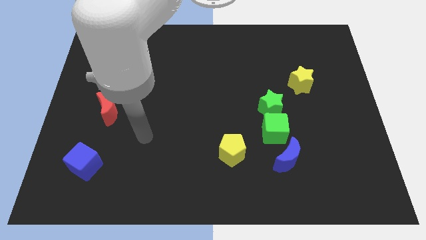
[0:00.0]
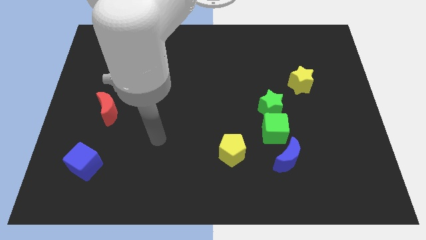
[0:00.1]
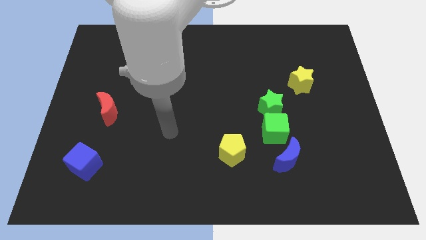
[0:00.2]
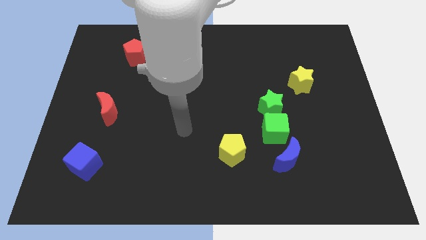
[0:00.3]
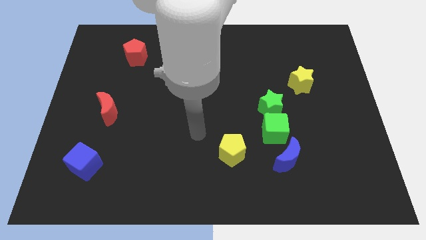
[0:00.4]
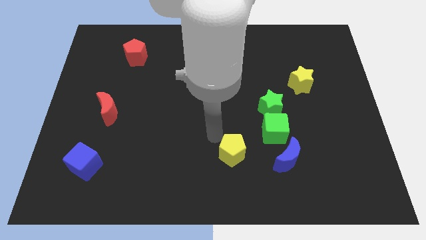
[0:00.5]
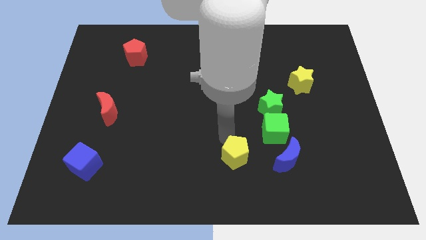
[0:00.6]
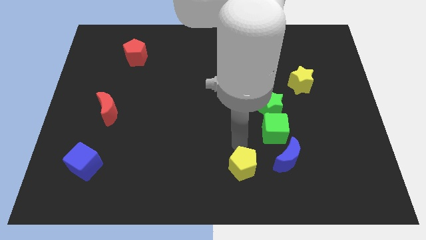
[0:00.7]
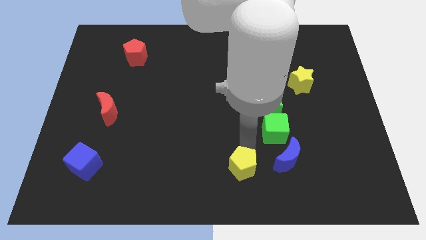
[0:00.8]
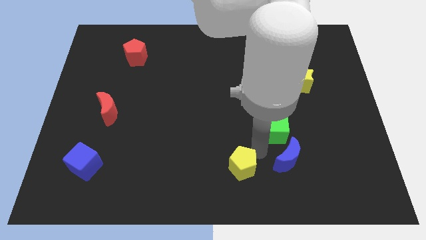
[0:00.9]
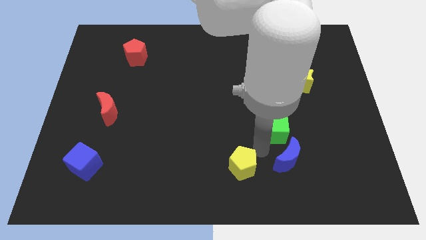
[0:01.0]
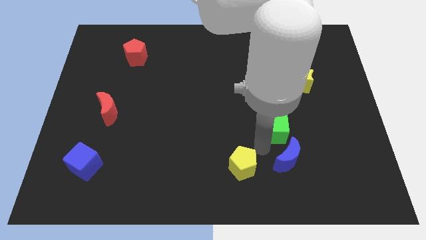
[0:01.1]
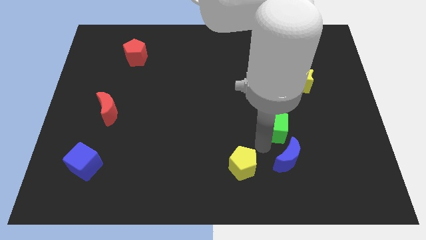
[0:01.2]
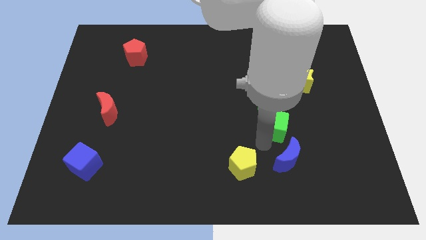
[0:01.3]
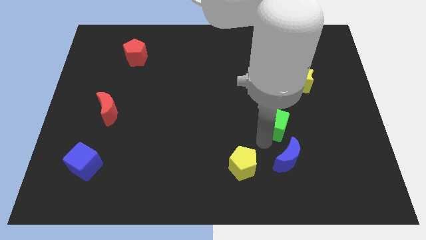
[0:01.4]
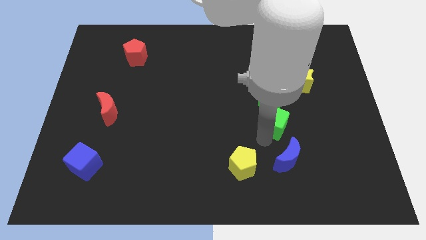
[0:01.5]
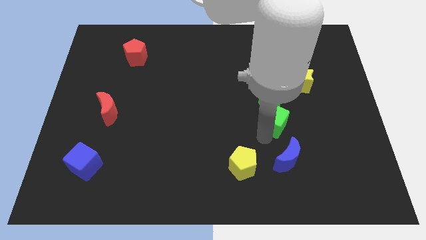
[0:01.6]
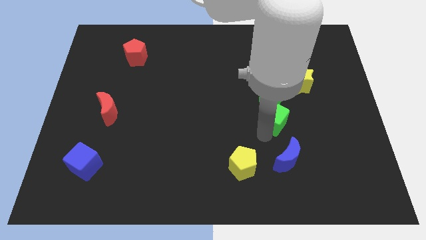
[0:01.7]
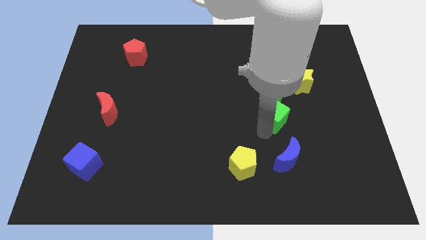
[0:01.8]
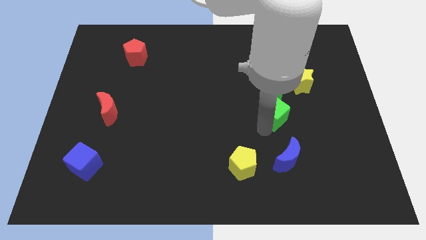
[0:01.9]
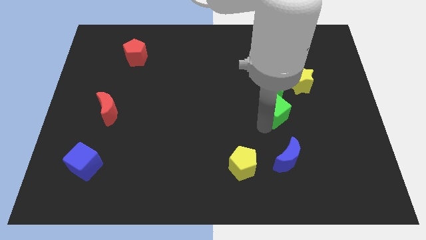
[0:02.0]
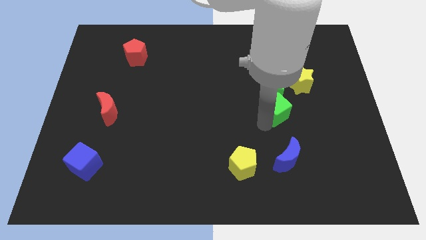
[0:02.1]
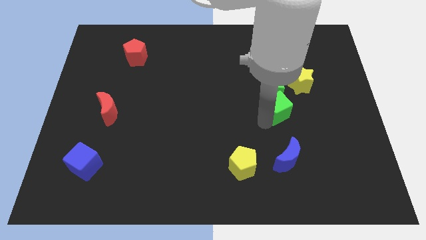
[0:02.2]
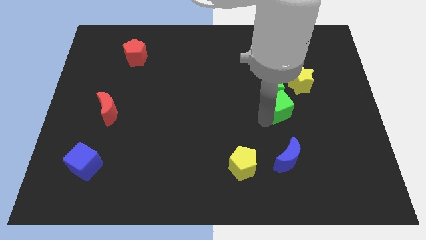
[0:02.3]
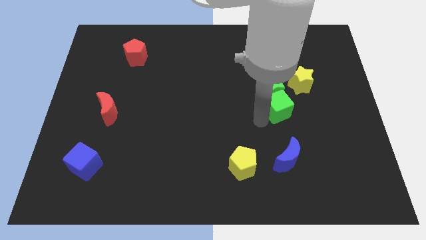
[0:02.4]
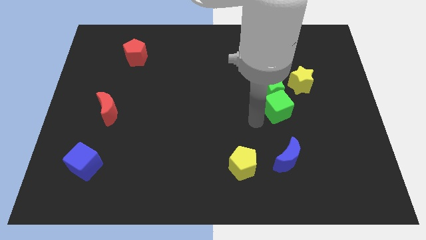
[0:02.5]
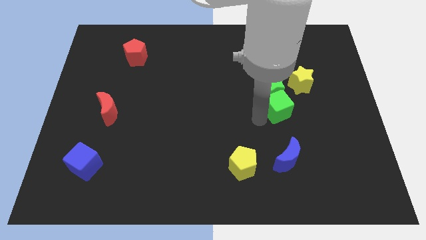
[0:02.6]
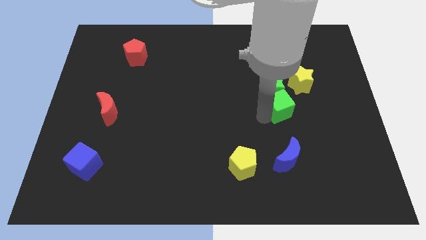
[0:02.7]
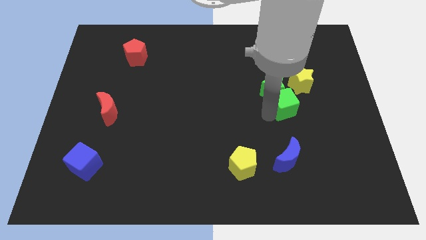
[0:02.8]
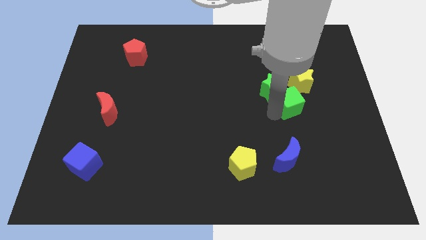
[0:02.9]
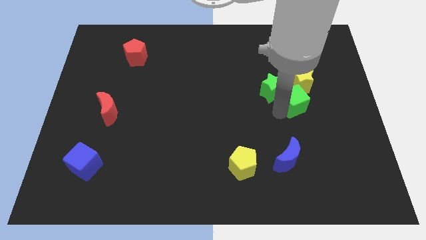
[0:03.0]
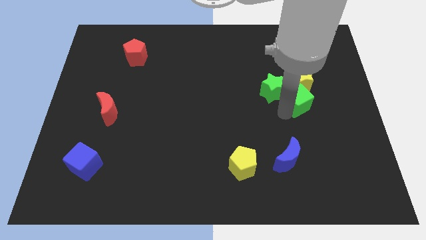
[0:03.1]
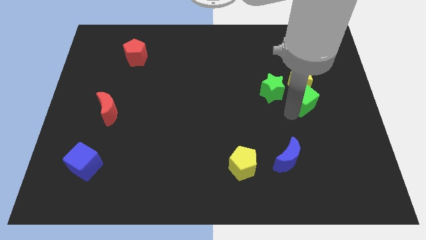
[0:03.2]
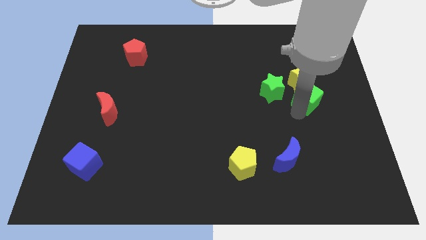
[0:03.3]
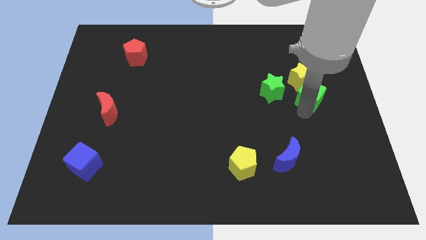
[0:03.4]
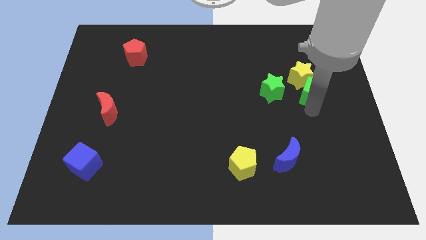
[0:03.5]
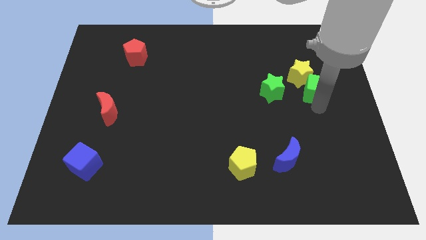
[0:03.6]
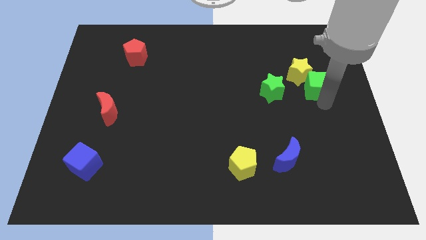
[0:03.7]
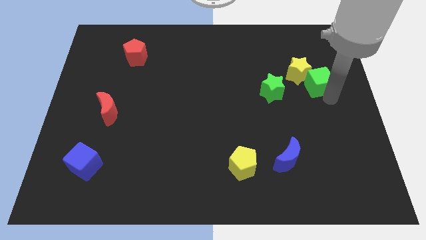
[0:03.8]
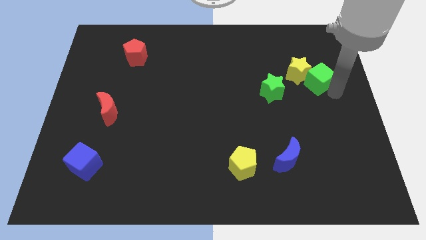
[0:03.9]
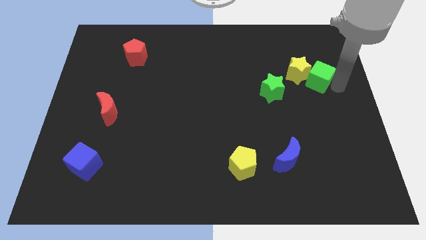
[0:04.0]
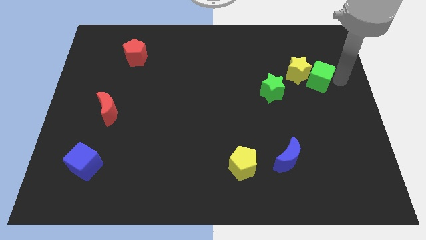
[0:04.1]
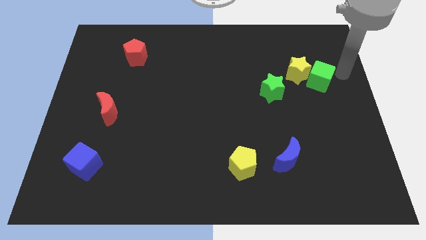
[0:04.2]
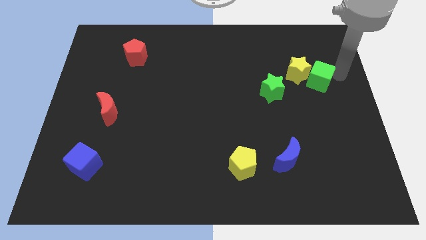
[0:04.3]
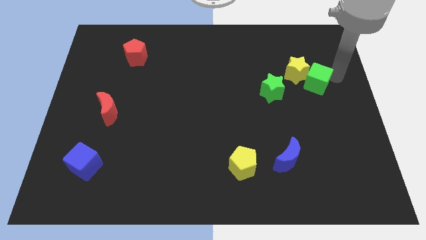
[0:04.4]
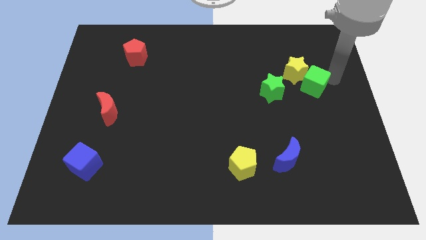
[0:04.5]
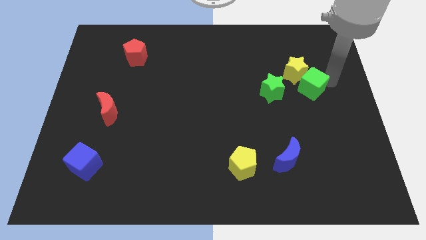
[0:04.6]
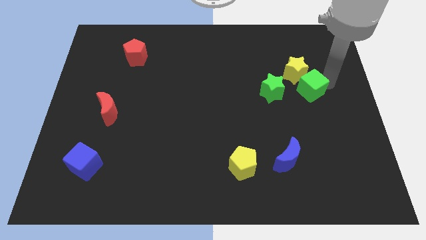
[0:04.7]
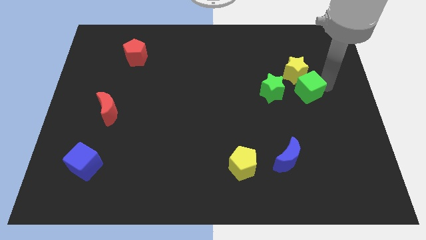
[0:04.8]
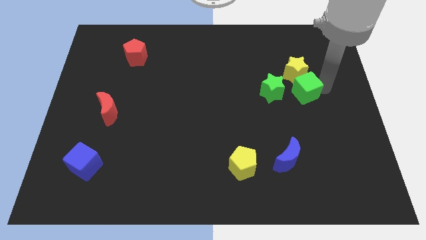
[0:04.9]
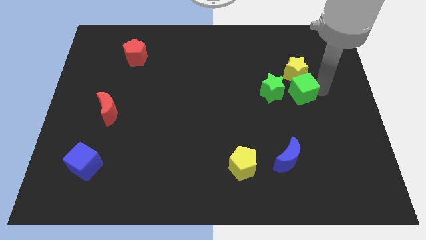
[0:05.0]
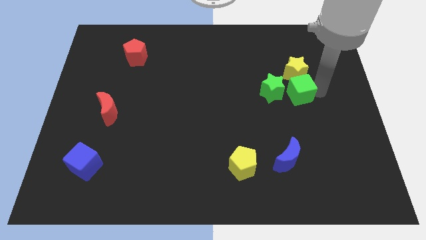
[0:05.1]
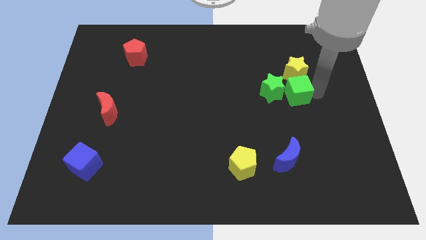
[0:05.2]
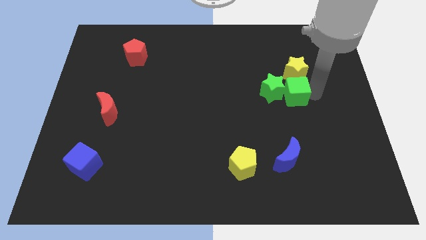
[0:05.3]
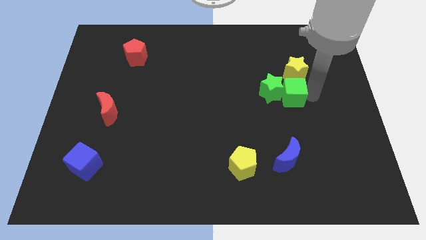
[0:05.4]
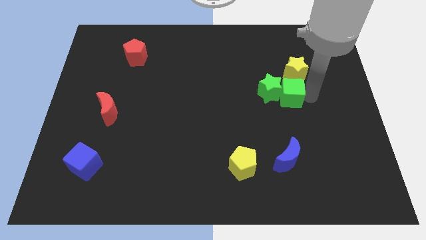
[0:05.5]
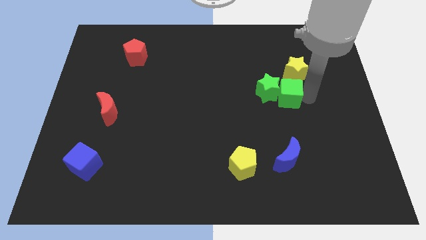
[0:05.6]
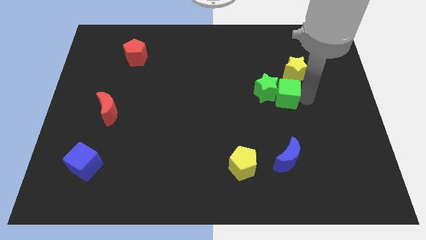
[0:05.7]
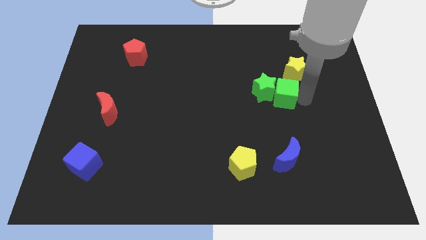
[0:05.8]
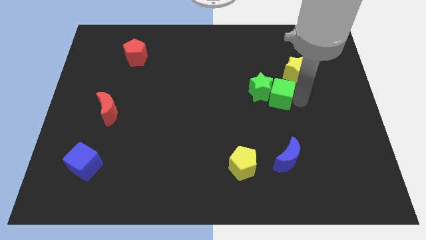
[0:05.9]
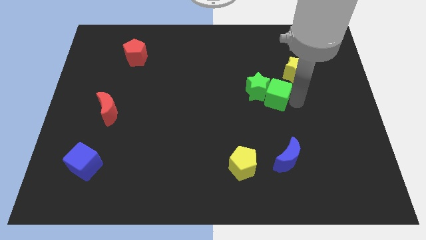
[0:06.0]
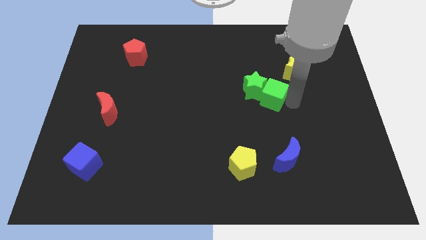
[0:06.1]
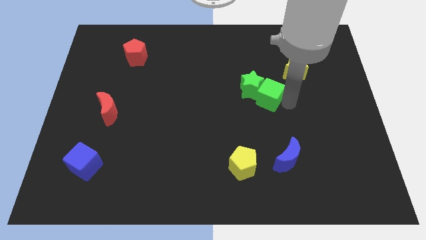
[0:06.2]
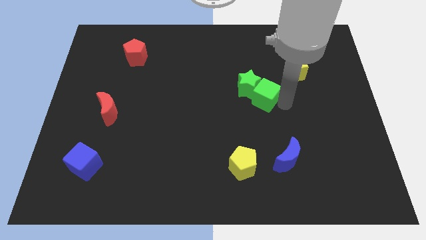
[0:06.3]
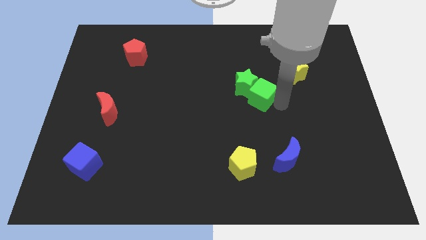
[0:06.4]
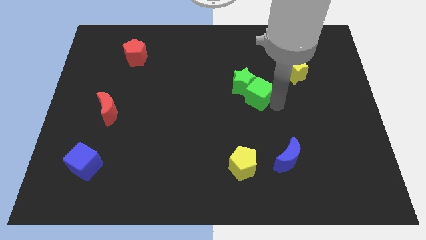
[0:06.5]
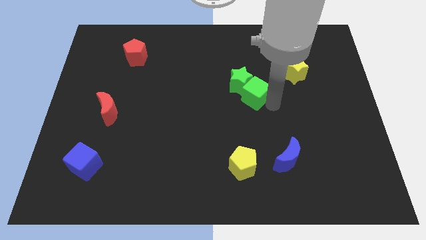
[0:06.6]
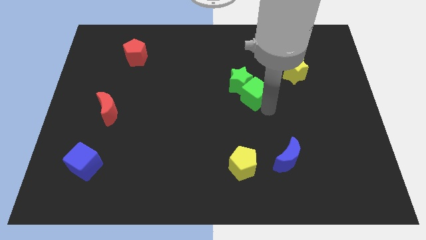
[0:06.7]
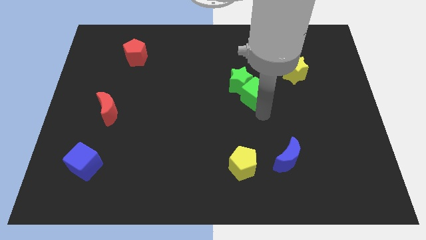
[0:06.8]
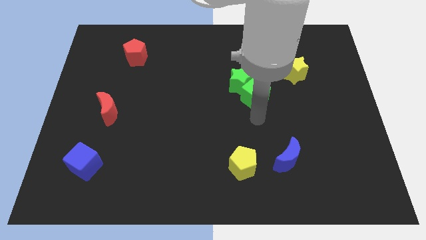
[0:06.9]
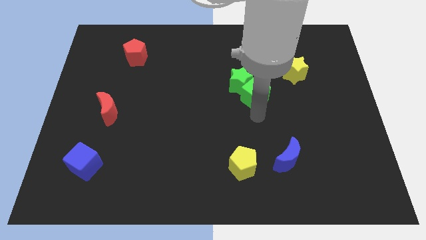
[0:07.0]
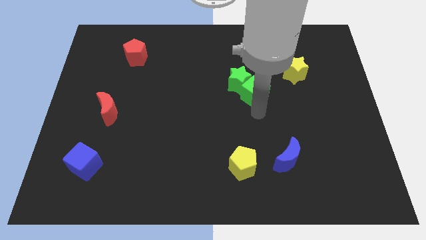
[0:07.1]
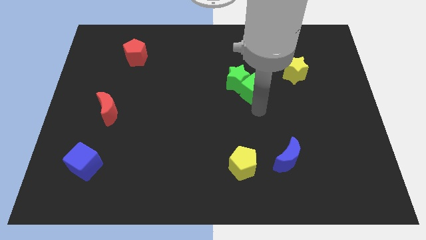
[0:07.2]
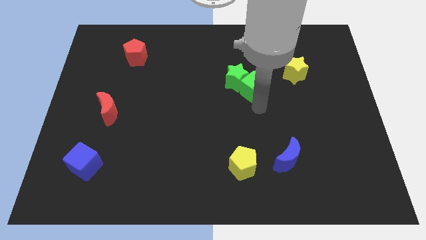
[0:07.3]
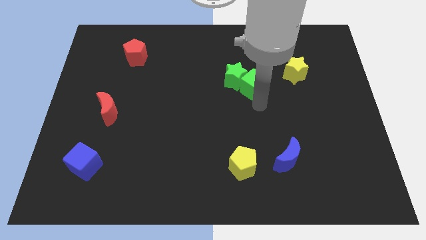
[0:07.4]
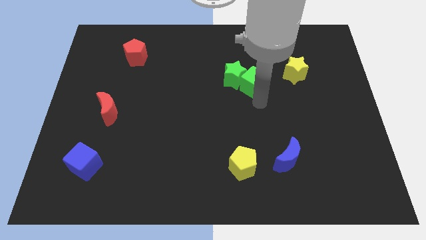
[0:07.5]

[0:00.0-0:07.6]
put the green cube to the left of the yellow star

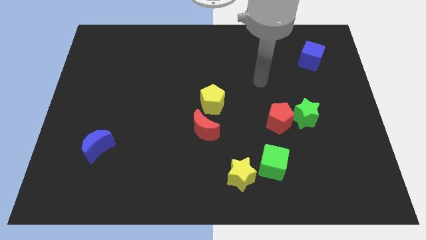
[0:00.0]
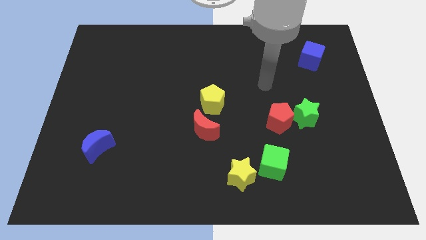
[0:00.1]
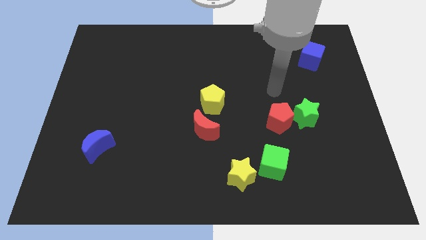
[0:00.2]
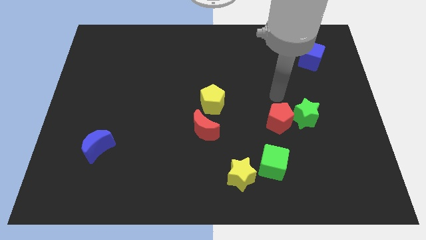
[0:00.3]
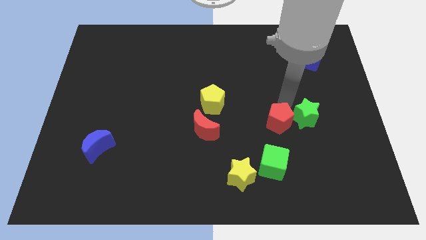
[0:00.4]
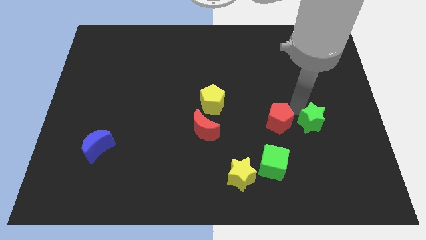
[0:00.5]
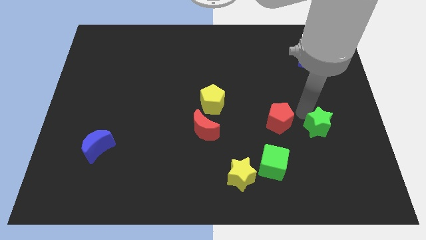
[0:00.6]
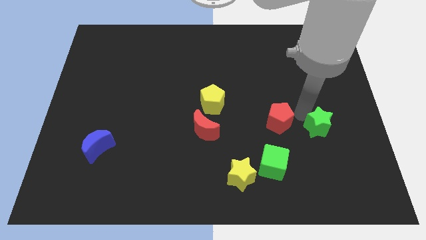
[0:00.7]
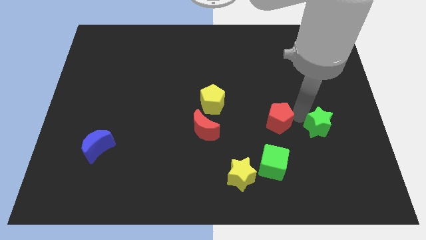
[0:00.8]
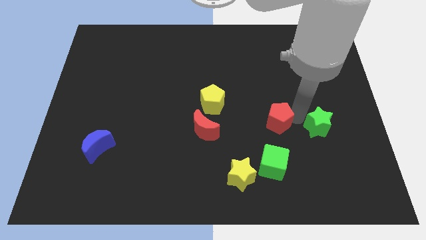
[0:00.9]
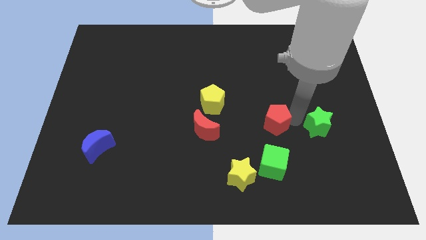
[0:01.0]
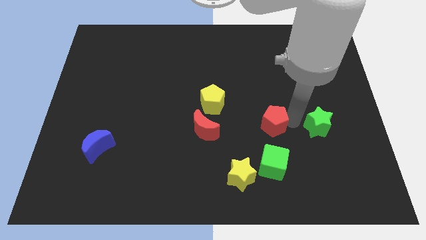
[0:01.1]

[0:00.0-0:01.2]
push the red pentagon right of the red moon
